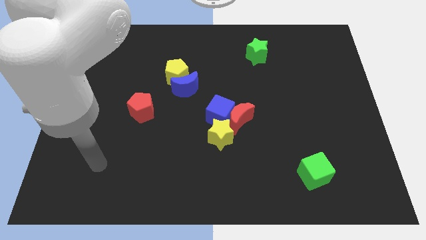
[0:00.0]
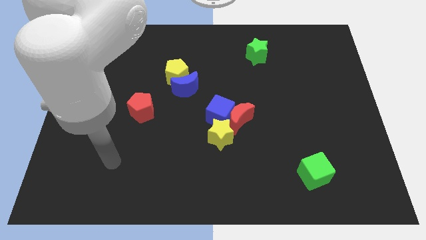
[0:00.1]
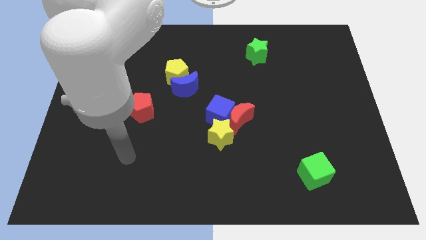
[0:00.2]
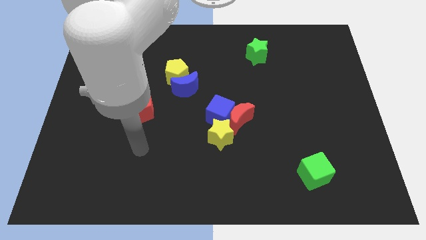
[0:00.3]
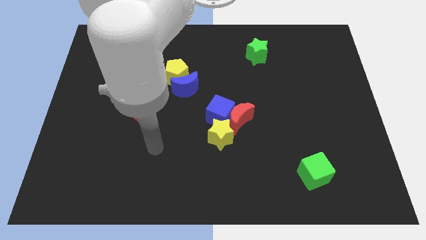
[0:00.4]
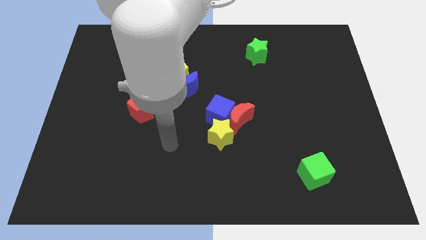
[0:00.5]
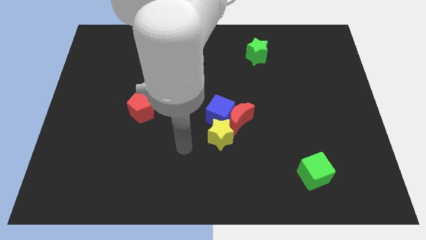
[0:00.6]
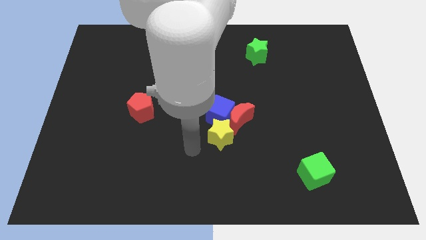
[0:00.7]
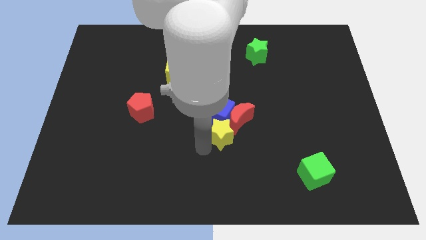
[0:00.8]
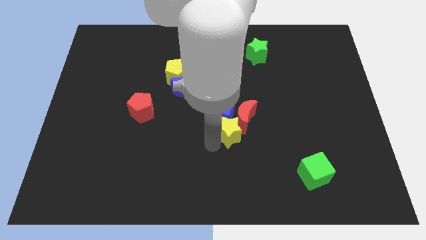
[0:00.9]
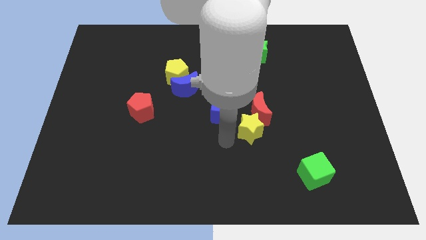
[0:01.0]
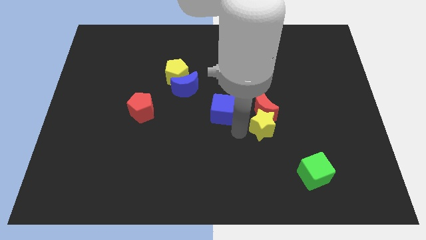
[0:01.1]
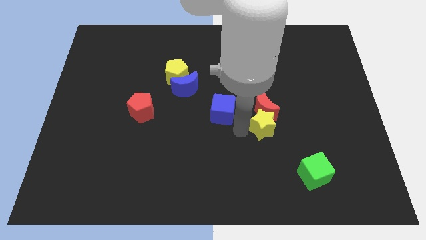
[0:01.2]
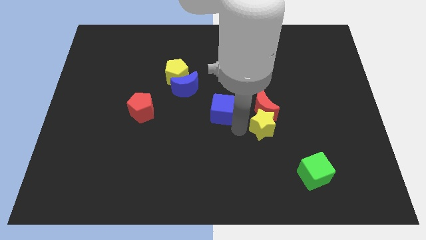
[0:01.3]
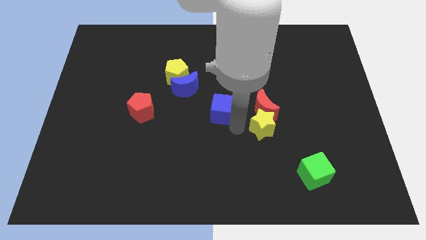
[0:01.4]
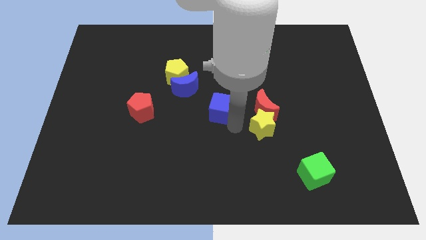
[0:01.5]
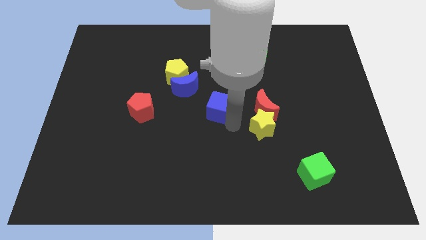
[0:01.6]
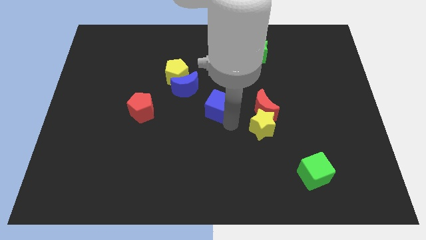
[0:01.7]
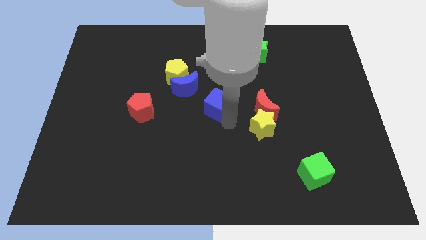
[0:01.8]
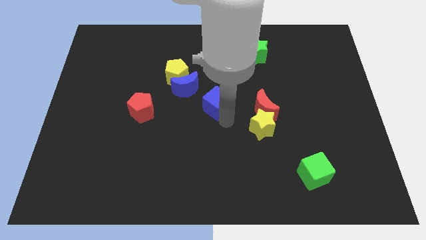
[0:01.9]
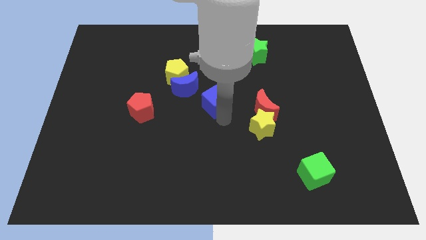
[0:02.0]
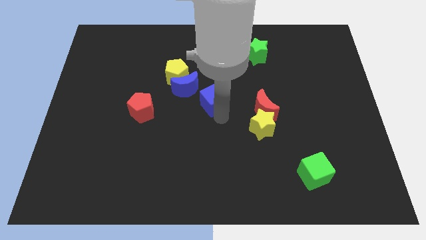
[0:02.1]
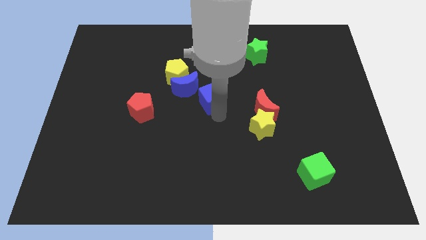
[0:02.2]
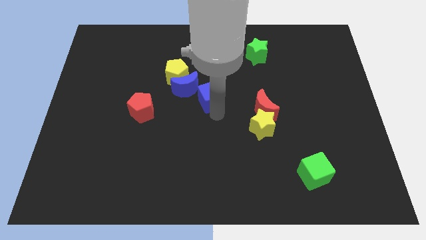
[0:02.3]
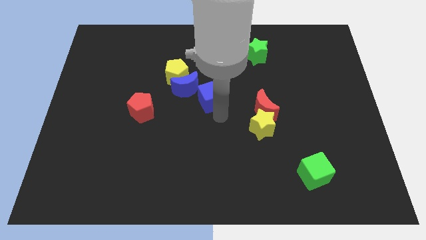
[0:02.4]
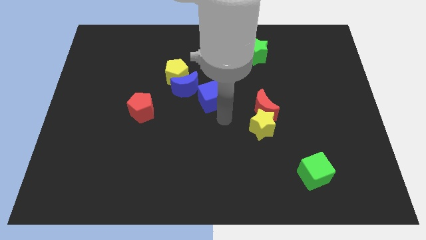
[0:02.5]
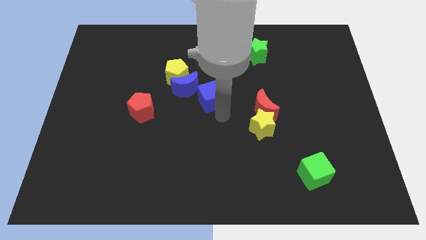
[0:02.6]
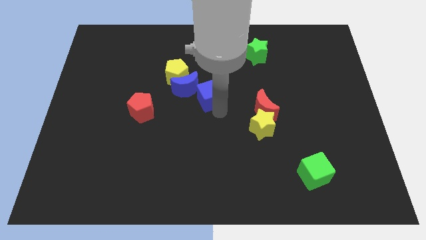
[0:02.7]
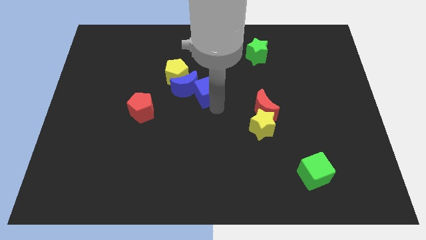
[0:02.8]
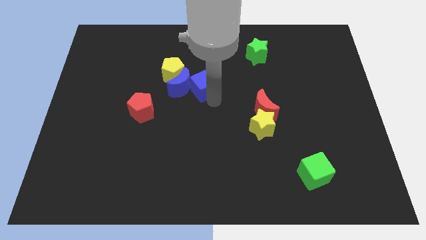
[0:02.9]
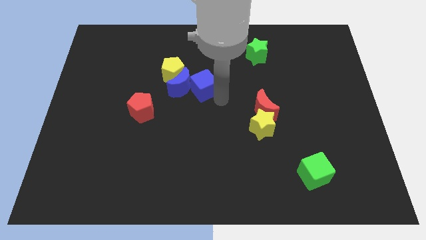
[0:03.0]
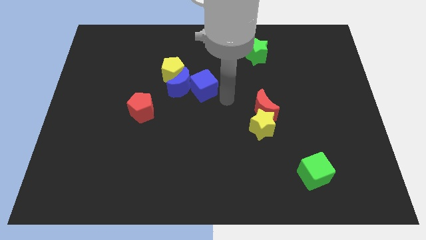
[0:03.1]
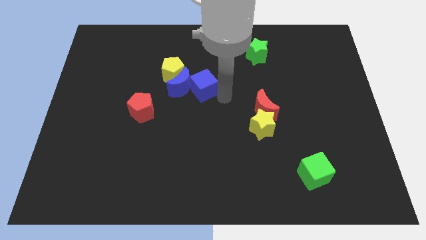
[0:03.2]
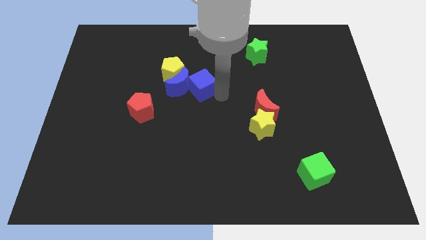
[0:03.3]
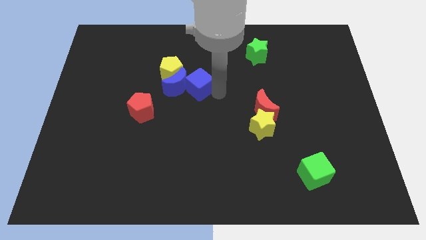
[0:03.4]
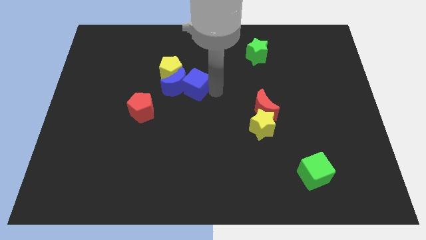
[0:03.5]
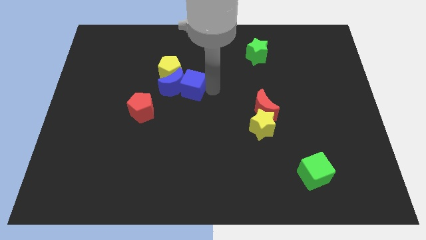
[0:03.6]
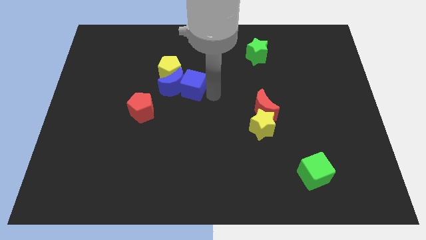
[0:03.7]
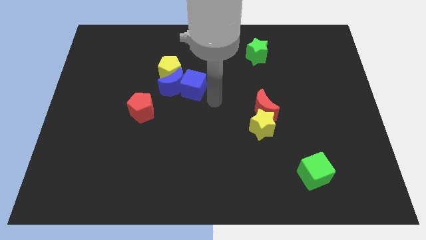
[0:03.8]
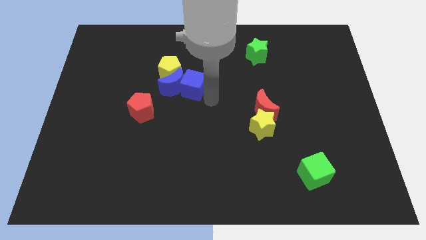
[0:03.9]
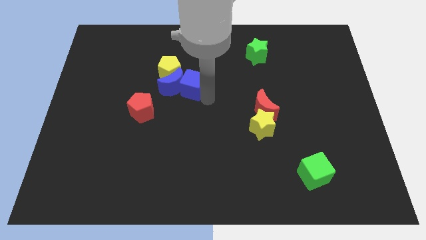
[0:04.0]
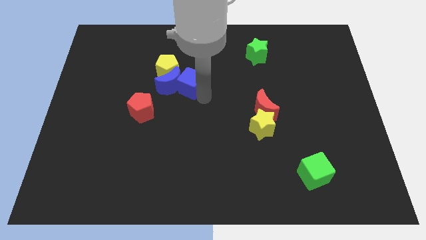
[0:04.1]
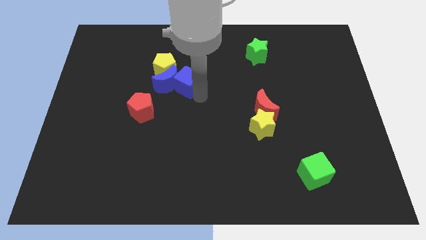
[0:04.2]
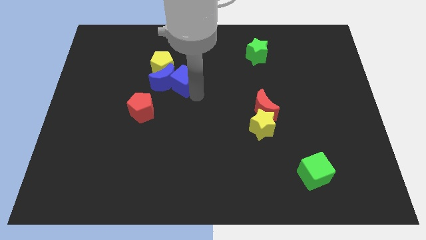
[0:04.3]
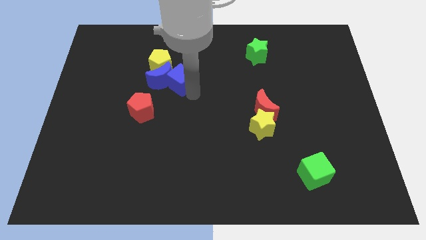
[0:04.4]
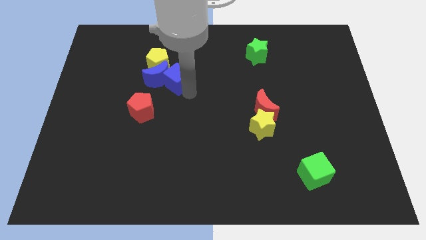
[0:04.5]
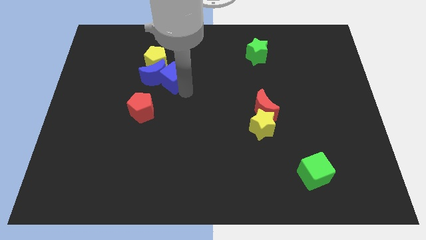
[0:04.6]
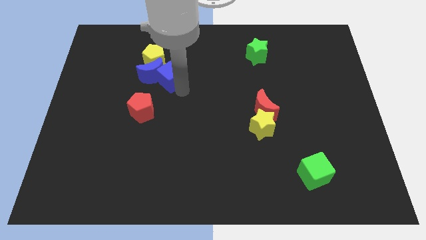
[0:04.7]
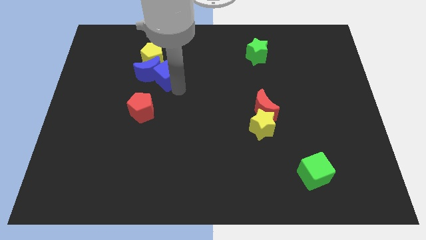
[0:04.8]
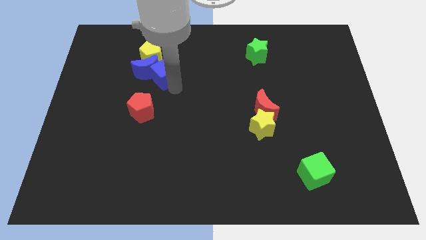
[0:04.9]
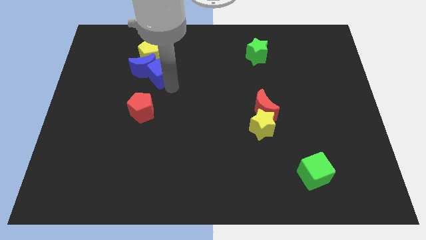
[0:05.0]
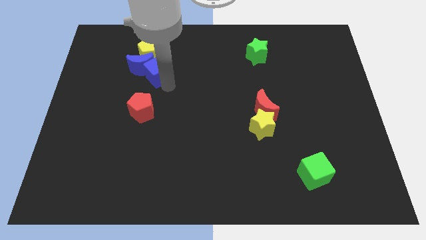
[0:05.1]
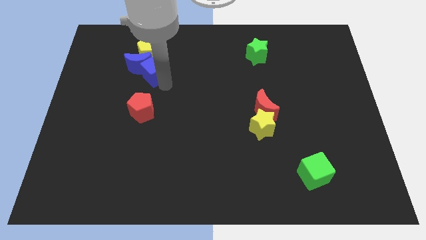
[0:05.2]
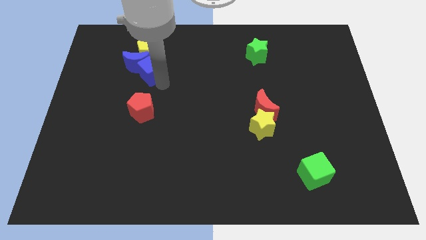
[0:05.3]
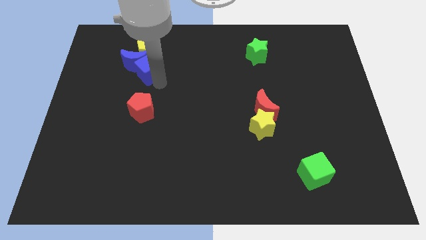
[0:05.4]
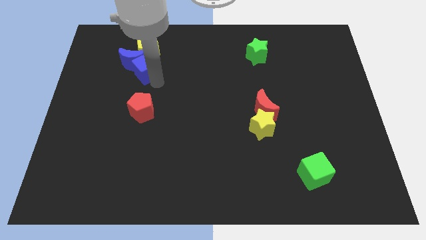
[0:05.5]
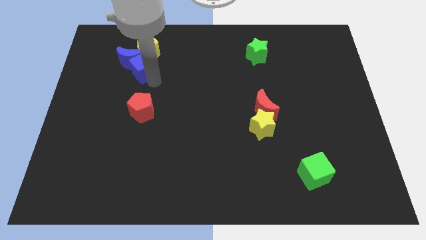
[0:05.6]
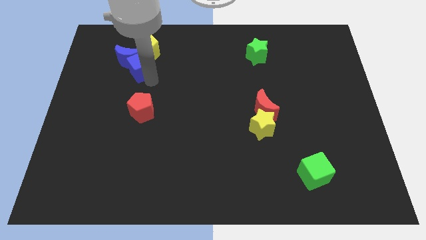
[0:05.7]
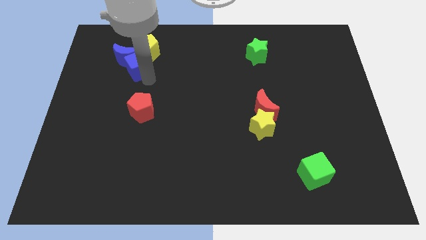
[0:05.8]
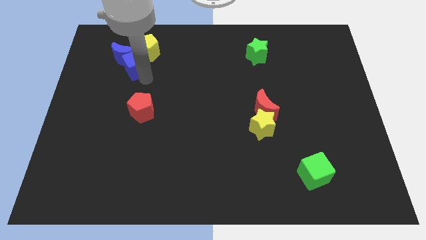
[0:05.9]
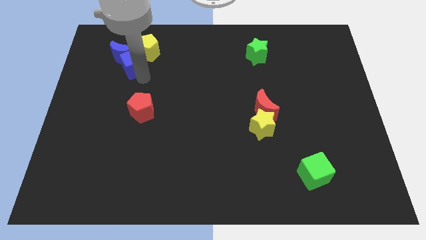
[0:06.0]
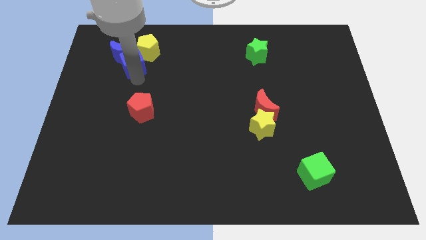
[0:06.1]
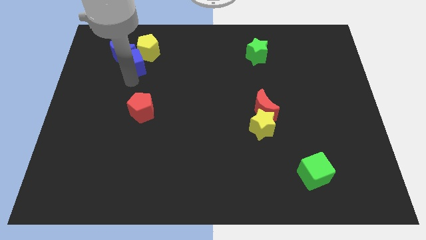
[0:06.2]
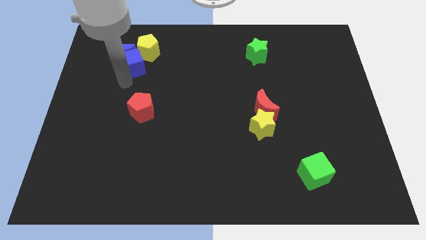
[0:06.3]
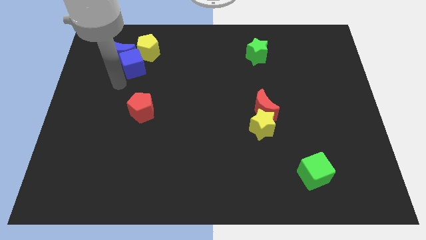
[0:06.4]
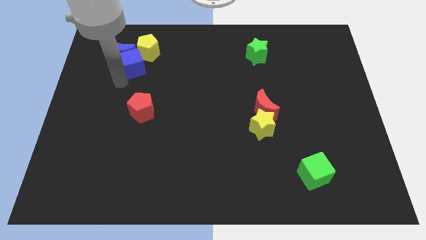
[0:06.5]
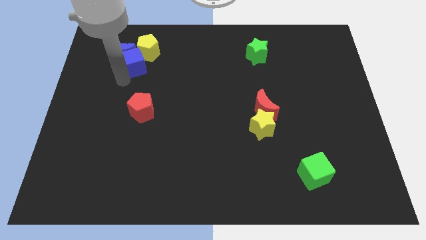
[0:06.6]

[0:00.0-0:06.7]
push the blue cube towards the yellow pentagon

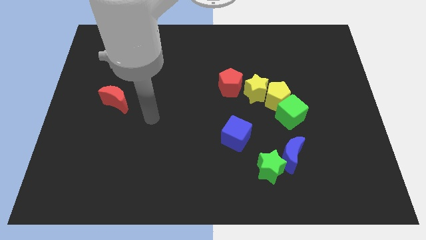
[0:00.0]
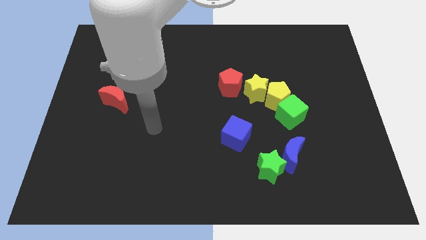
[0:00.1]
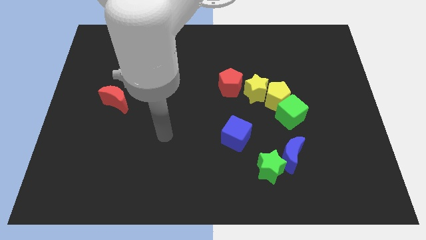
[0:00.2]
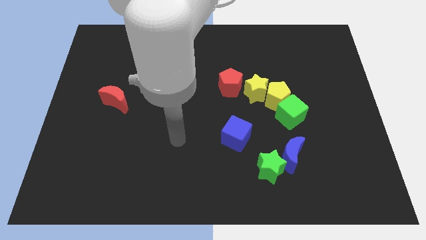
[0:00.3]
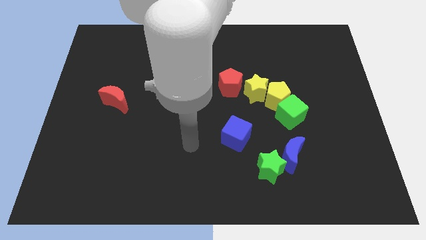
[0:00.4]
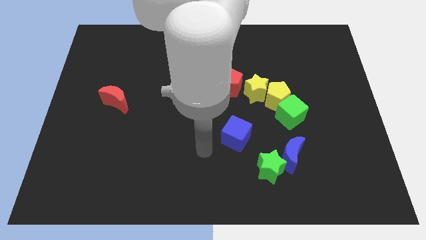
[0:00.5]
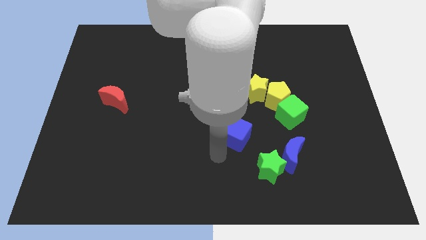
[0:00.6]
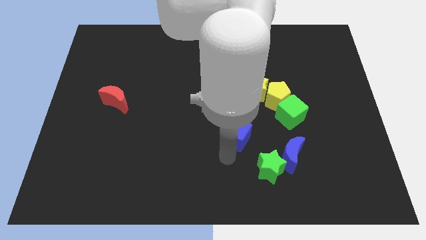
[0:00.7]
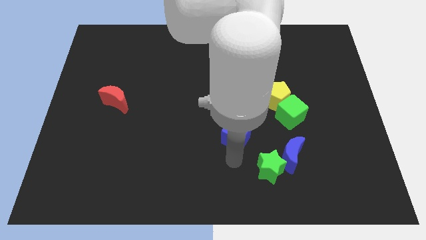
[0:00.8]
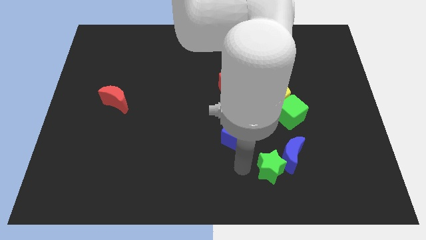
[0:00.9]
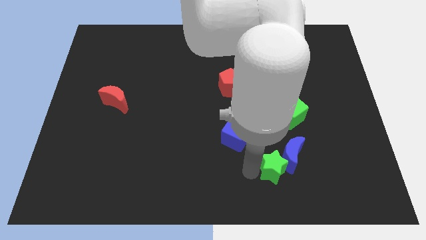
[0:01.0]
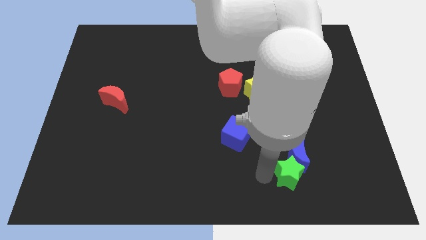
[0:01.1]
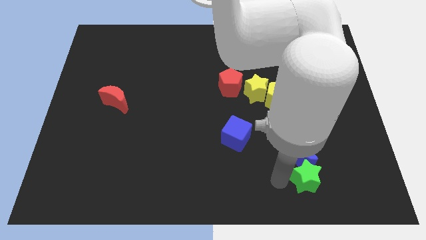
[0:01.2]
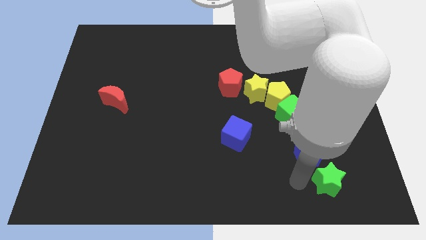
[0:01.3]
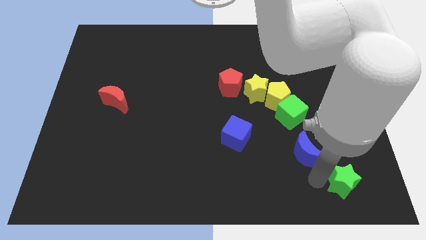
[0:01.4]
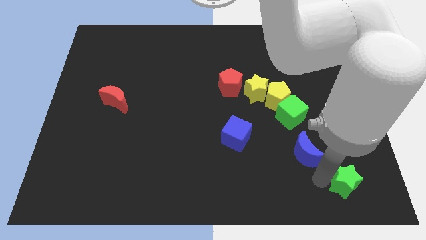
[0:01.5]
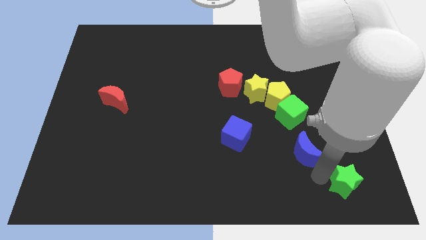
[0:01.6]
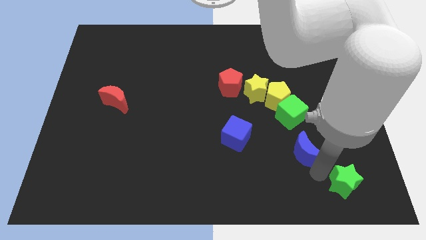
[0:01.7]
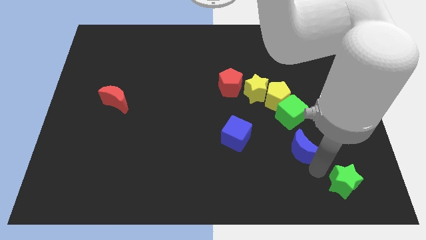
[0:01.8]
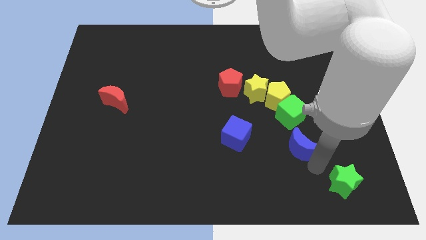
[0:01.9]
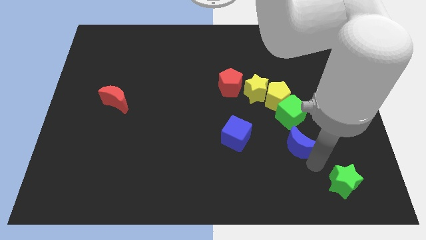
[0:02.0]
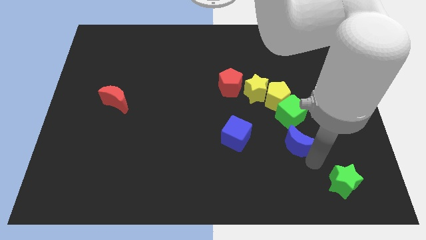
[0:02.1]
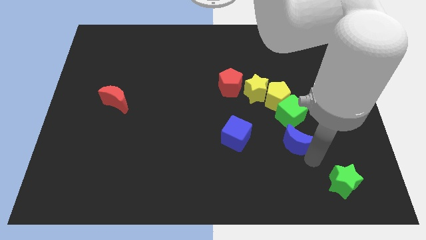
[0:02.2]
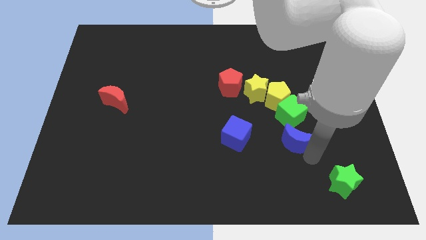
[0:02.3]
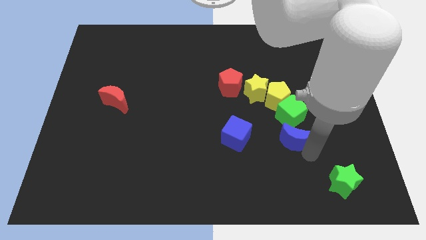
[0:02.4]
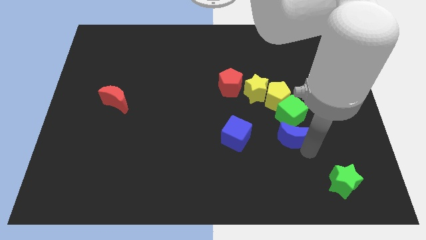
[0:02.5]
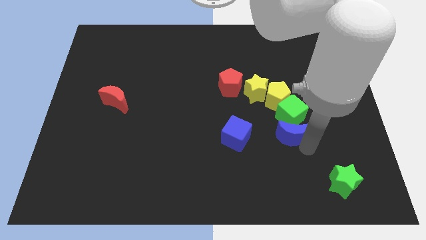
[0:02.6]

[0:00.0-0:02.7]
push the blue moon next to the green cube
